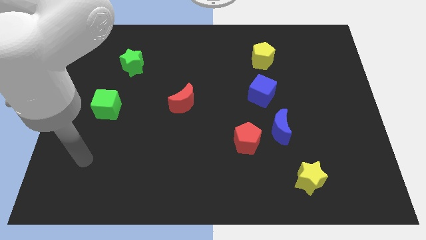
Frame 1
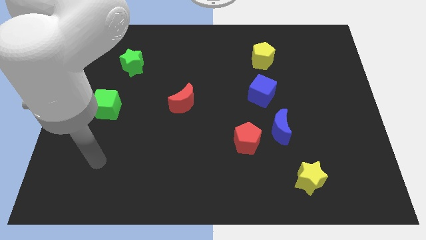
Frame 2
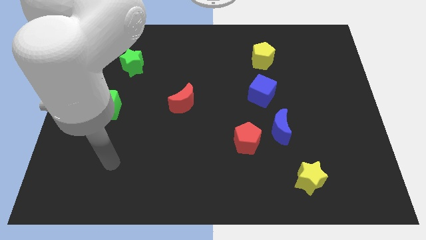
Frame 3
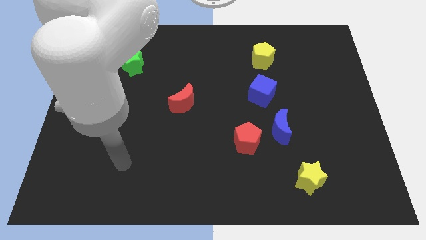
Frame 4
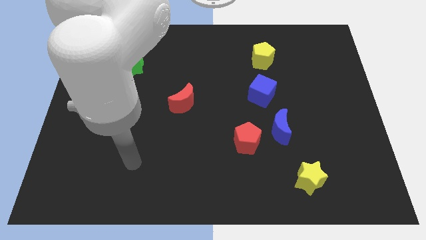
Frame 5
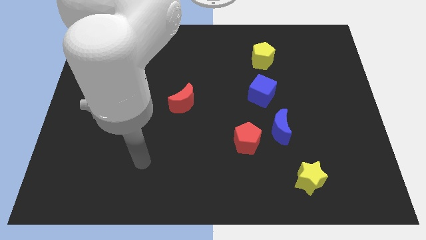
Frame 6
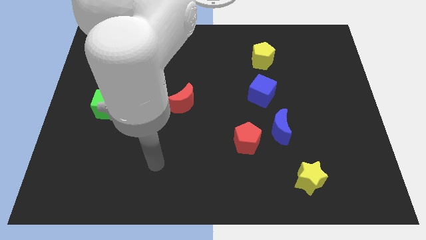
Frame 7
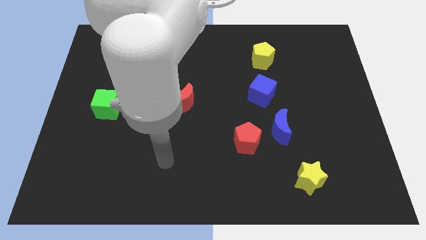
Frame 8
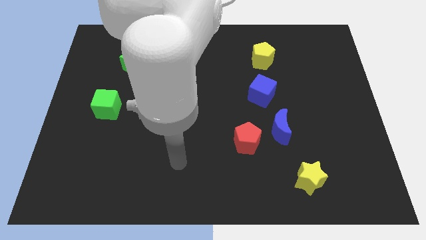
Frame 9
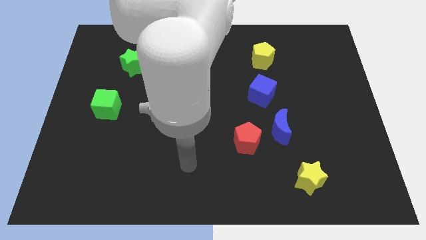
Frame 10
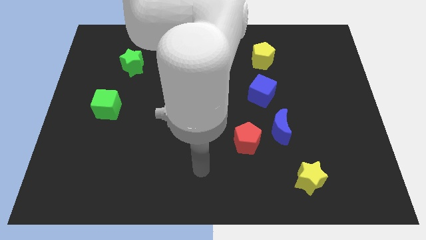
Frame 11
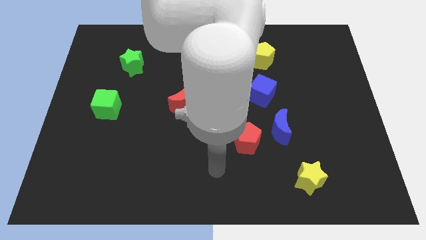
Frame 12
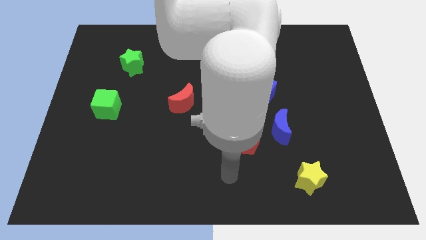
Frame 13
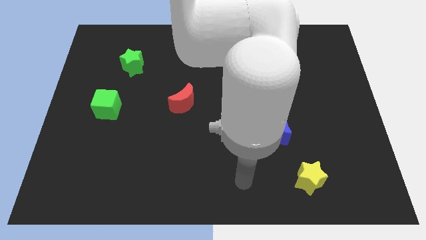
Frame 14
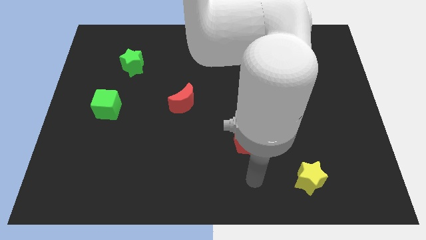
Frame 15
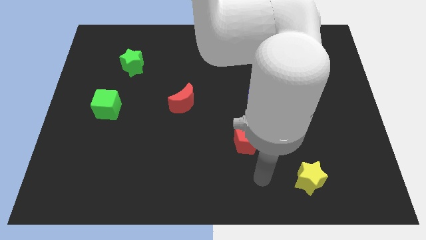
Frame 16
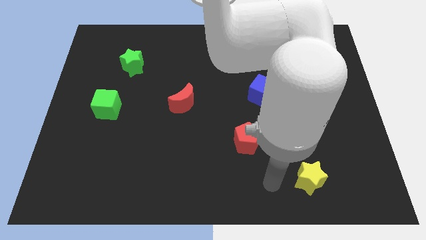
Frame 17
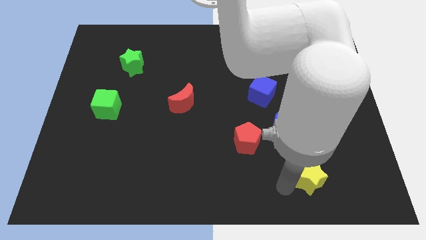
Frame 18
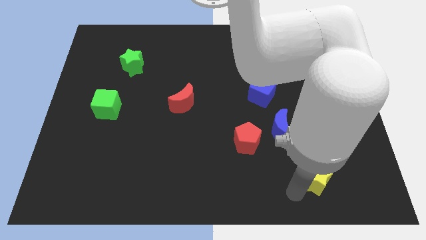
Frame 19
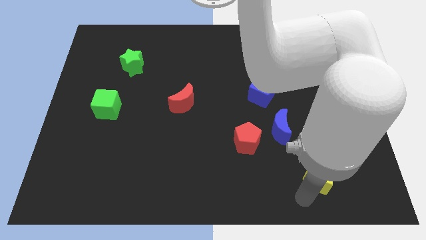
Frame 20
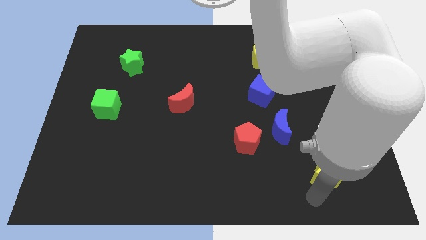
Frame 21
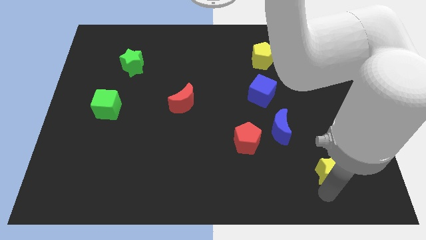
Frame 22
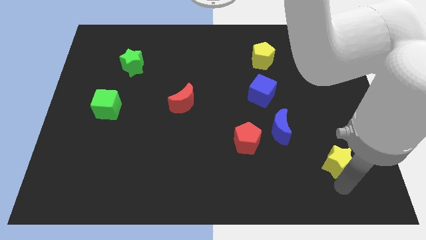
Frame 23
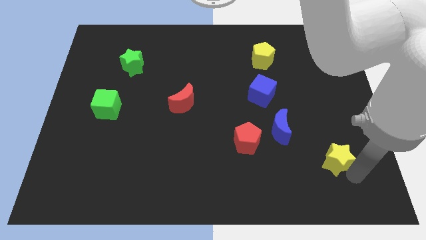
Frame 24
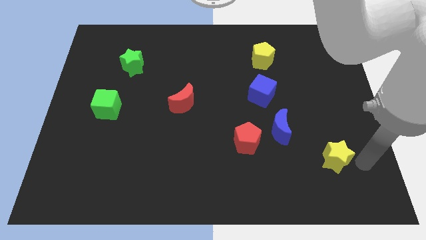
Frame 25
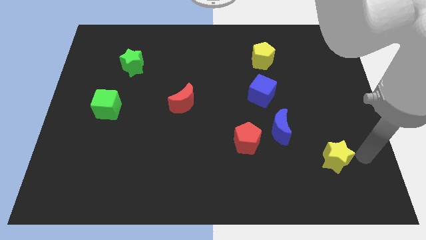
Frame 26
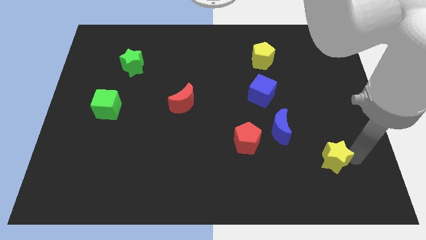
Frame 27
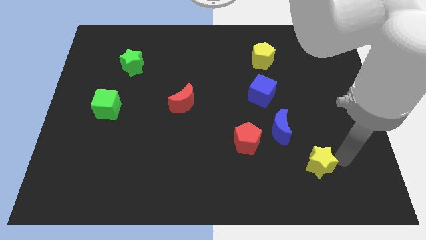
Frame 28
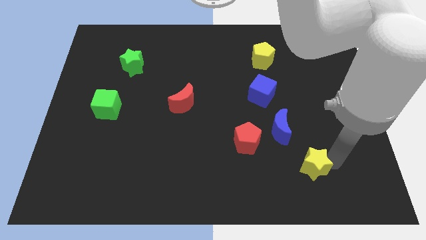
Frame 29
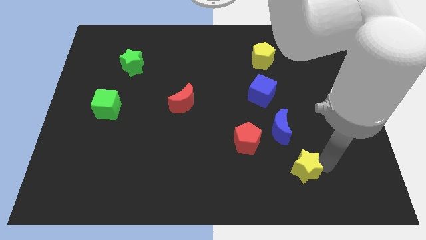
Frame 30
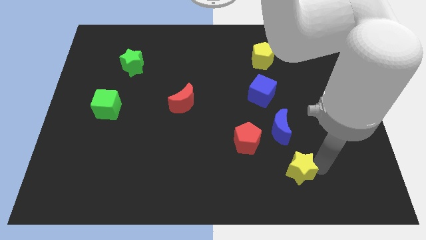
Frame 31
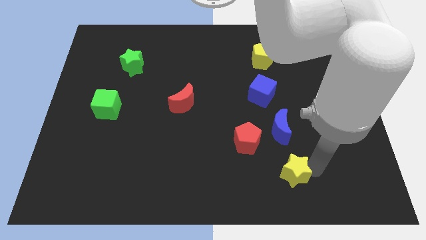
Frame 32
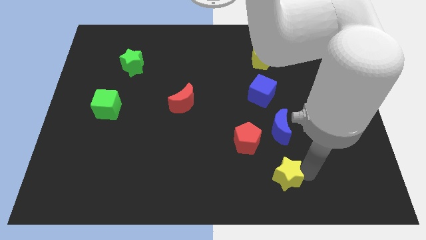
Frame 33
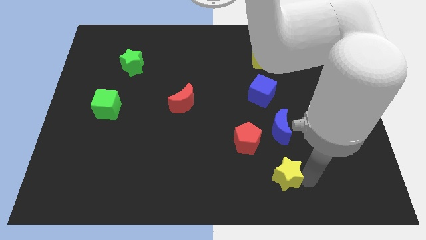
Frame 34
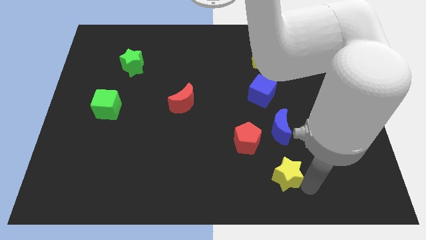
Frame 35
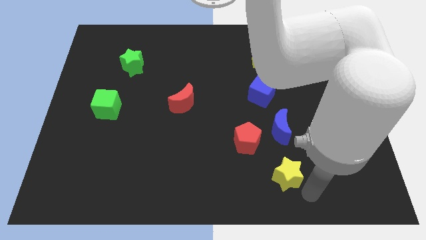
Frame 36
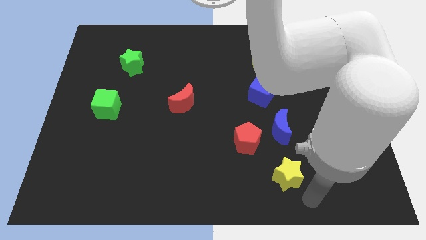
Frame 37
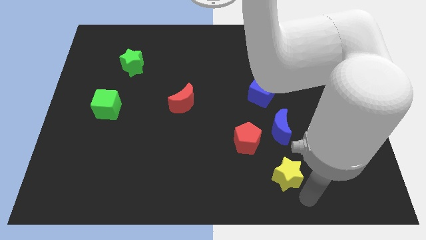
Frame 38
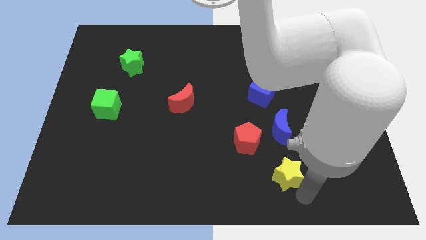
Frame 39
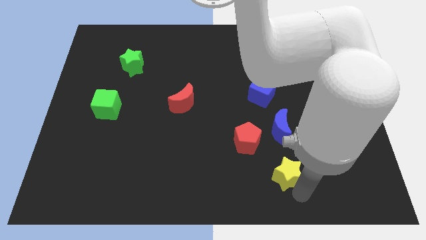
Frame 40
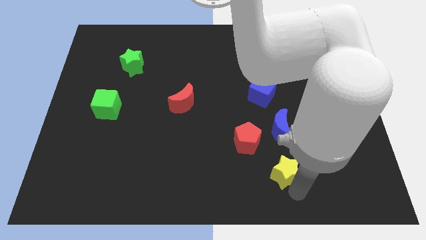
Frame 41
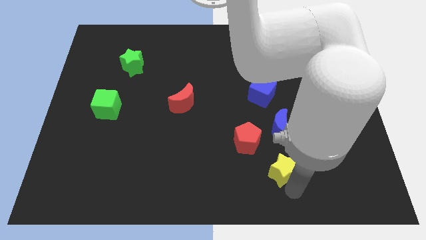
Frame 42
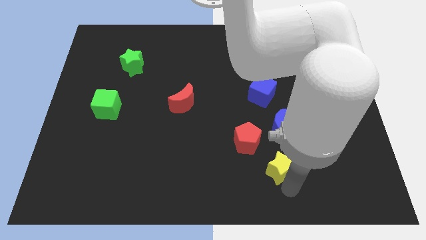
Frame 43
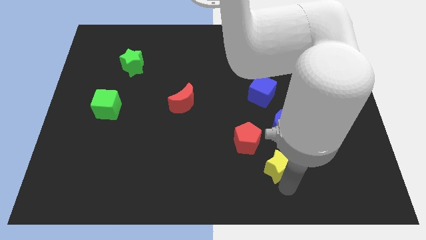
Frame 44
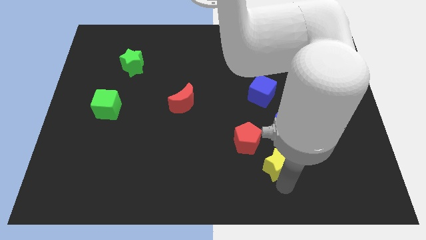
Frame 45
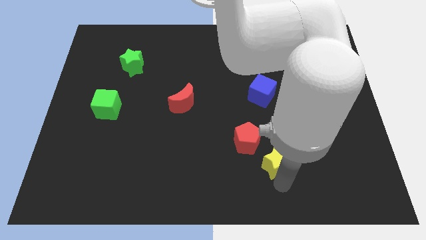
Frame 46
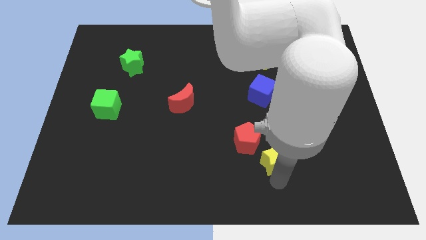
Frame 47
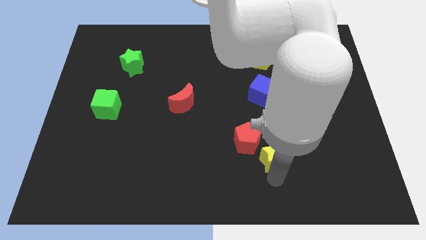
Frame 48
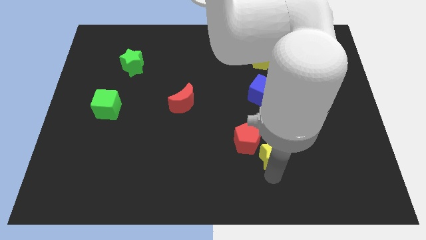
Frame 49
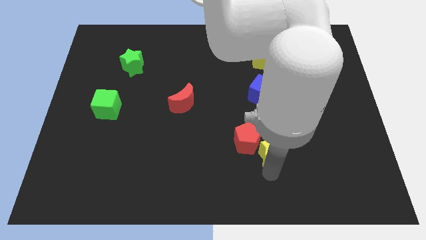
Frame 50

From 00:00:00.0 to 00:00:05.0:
push the yellow star next to the red pentagon

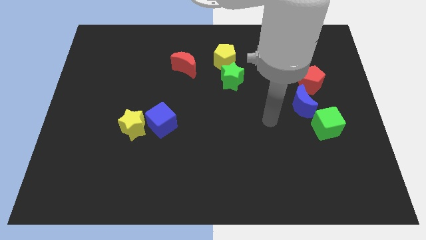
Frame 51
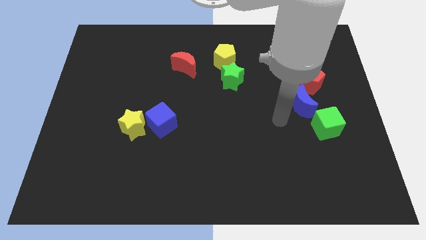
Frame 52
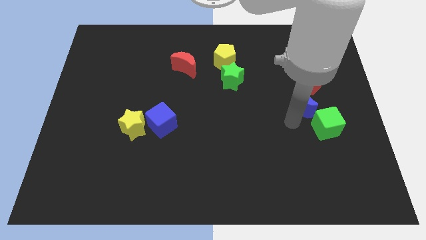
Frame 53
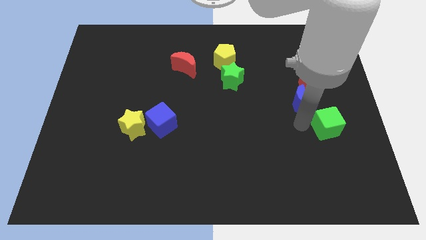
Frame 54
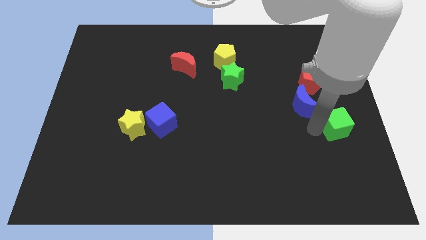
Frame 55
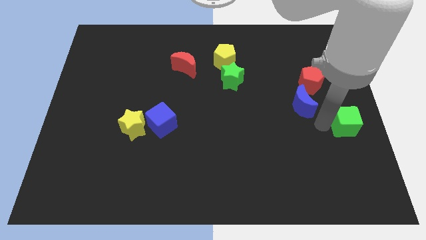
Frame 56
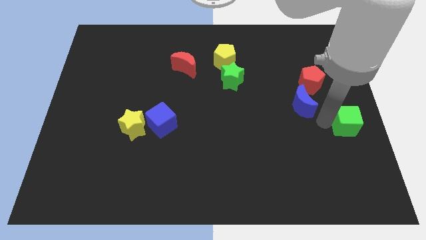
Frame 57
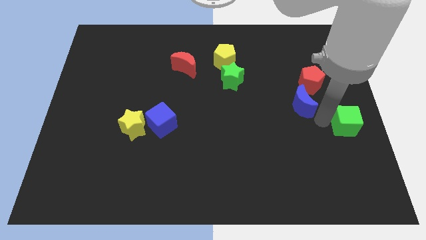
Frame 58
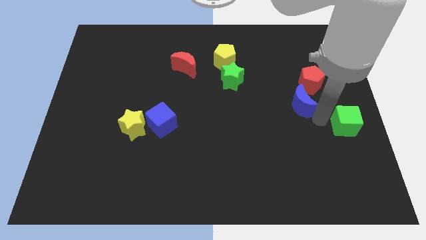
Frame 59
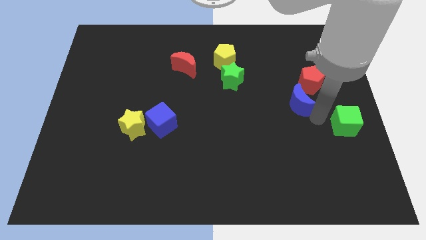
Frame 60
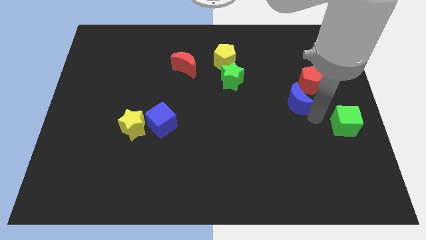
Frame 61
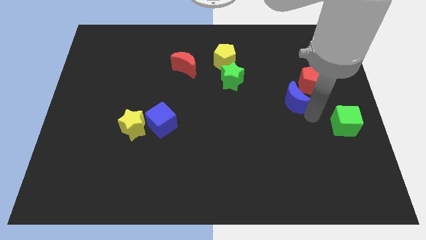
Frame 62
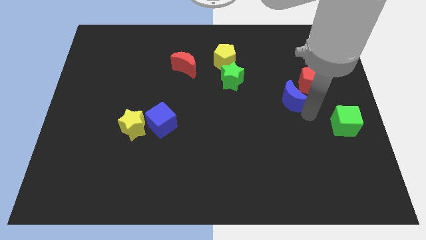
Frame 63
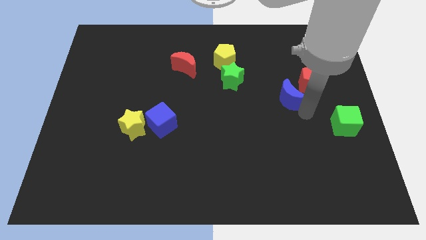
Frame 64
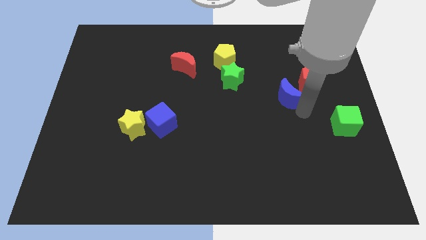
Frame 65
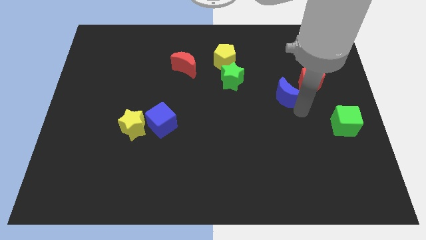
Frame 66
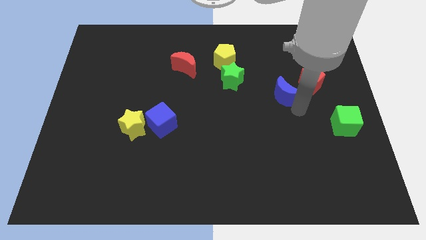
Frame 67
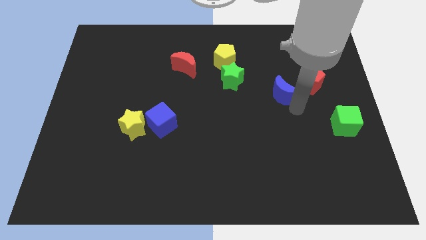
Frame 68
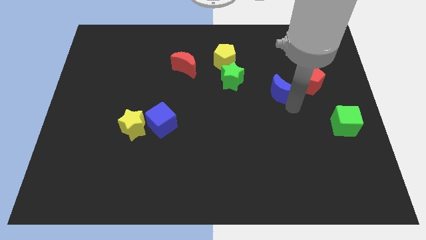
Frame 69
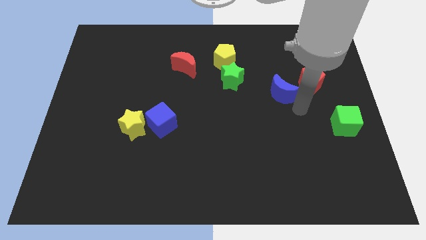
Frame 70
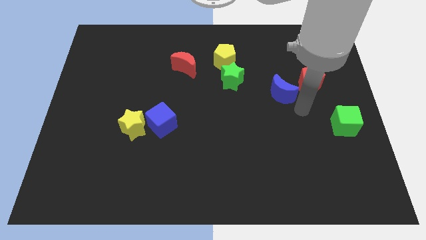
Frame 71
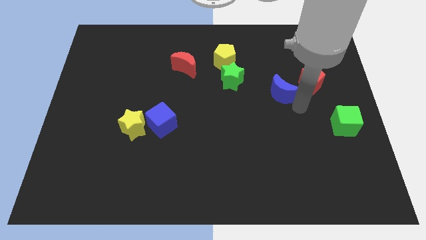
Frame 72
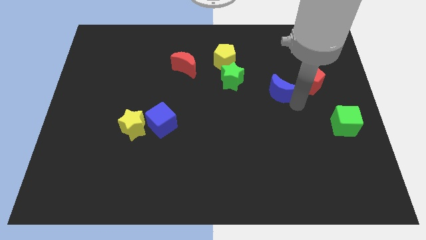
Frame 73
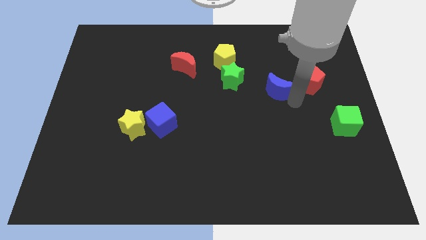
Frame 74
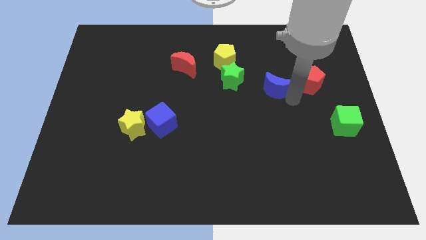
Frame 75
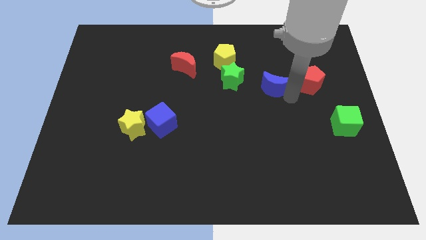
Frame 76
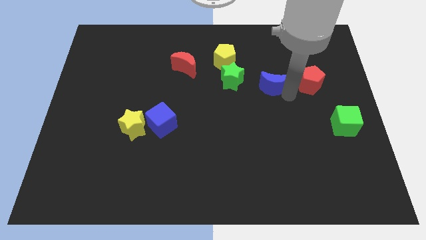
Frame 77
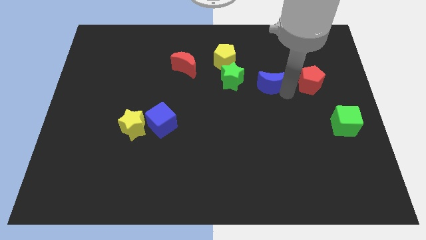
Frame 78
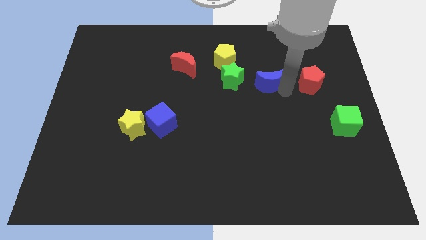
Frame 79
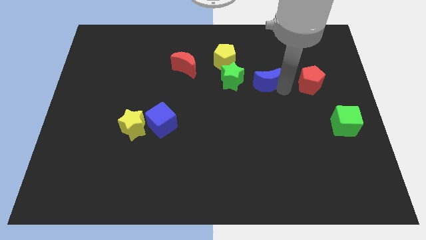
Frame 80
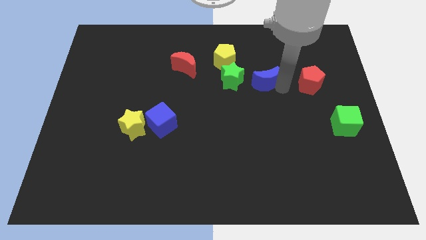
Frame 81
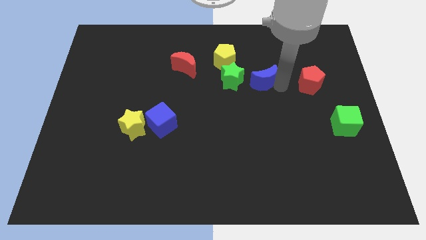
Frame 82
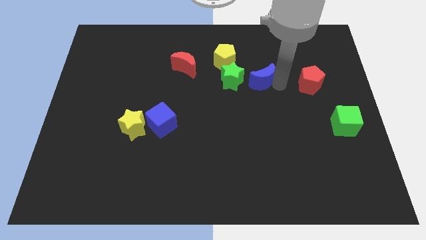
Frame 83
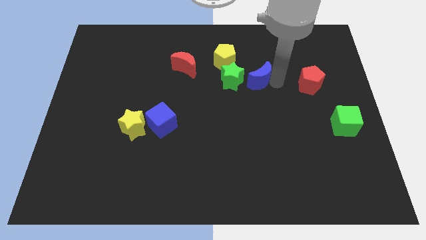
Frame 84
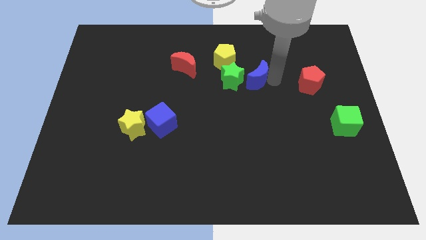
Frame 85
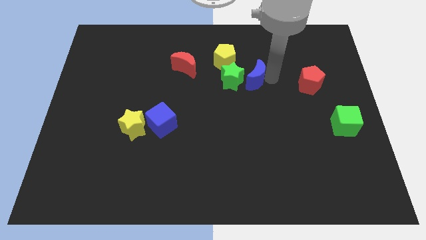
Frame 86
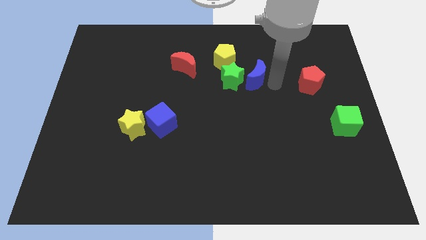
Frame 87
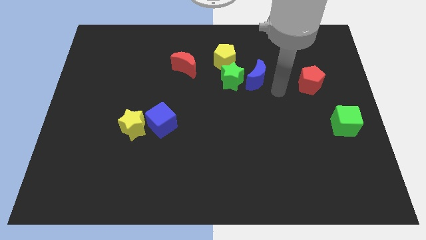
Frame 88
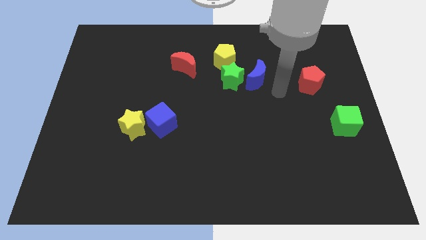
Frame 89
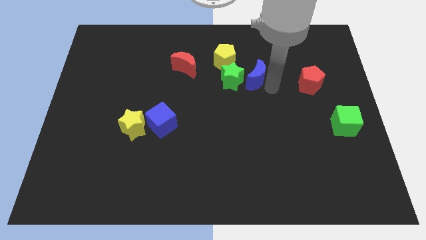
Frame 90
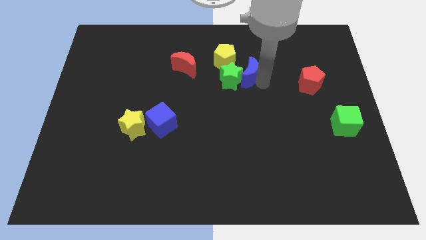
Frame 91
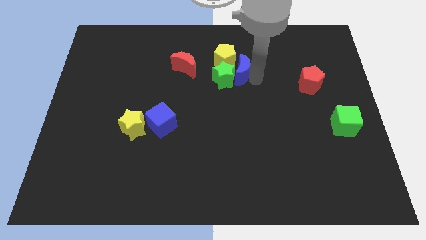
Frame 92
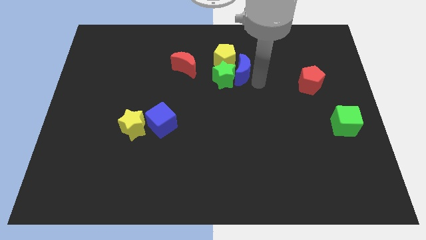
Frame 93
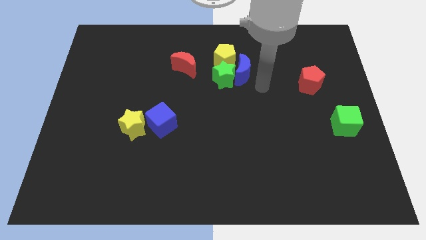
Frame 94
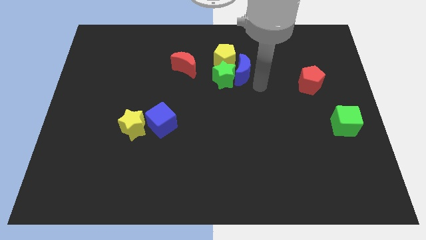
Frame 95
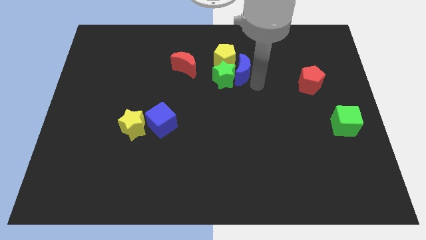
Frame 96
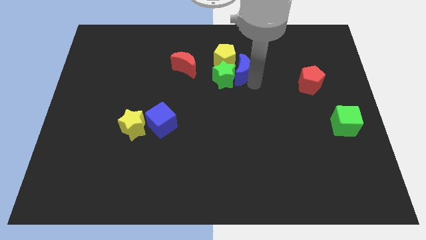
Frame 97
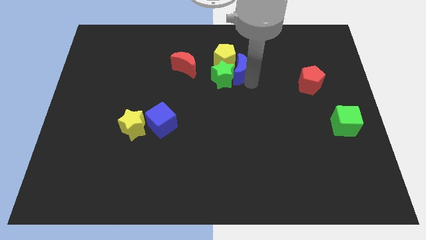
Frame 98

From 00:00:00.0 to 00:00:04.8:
move the blue moon towards the yellow pentagon
